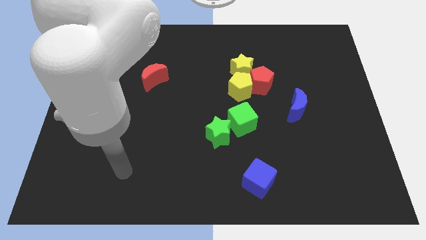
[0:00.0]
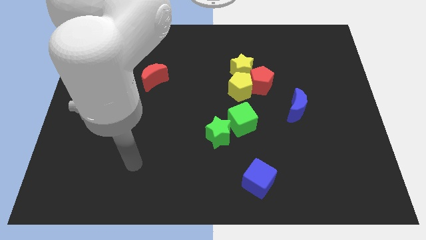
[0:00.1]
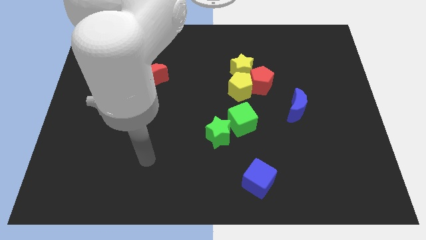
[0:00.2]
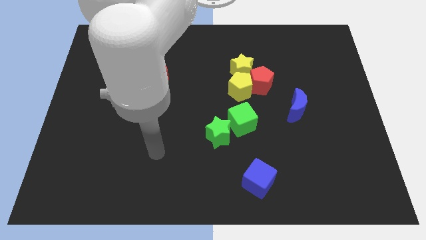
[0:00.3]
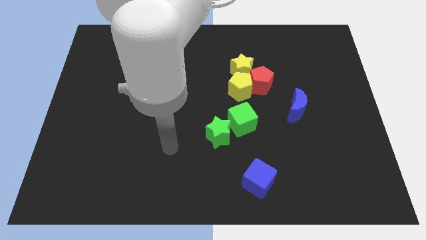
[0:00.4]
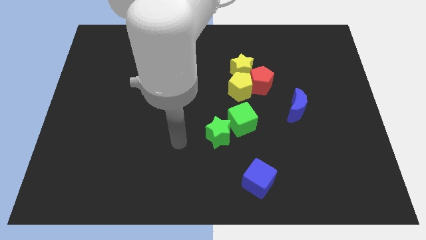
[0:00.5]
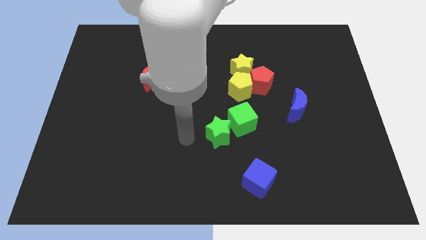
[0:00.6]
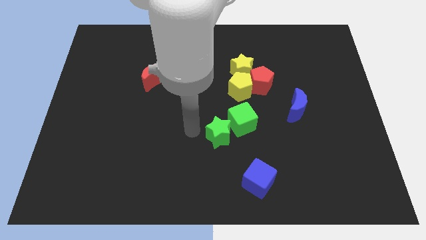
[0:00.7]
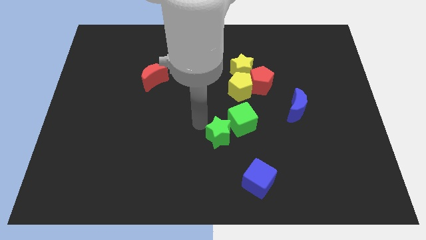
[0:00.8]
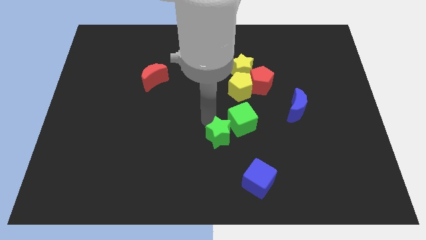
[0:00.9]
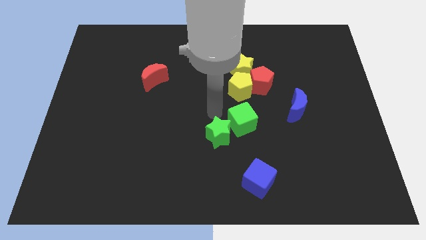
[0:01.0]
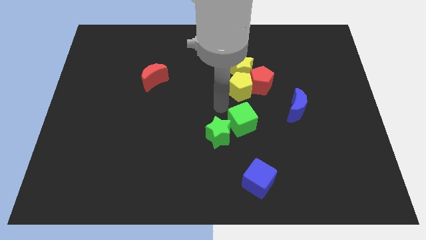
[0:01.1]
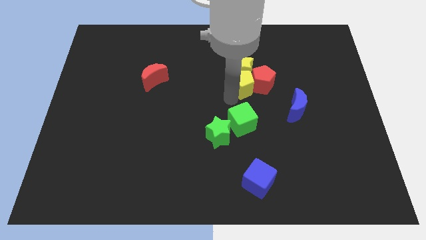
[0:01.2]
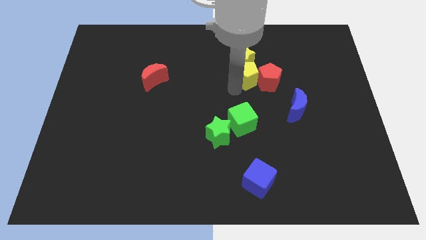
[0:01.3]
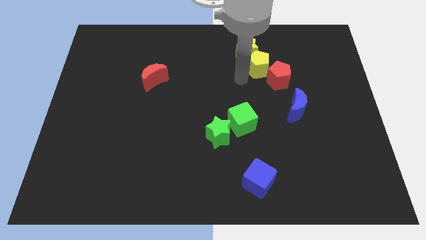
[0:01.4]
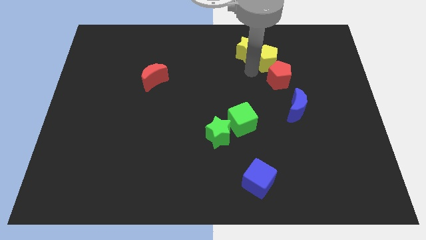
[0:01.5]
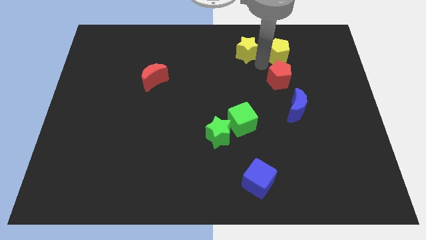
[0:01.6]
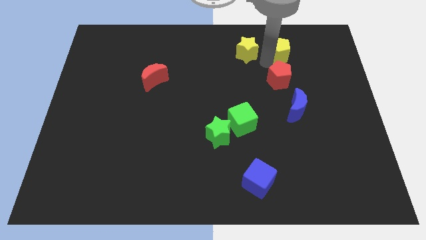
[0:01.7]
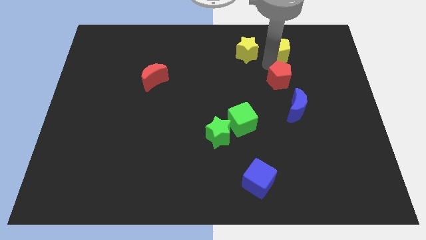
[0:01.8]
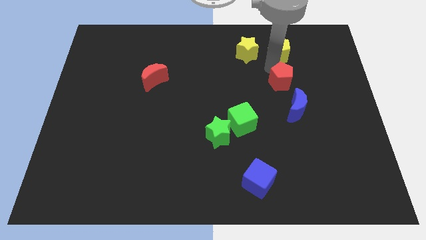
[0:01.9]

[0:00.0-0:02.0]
move the red pentagon away from the yellow pentagon and yellow star

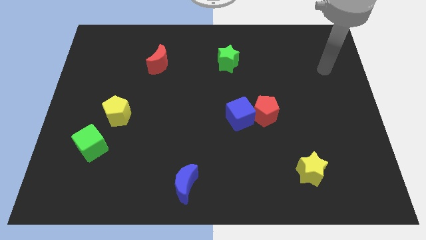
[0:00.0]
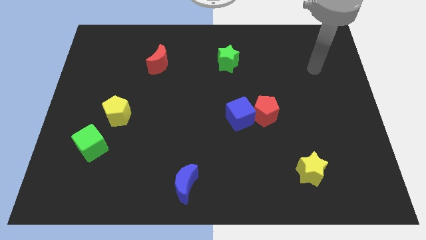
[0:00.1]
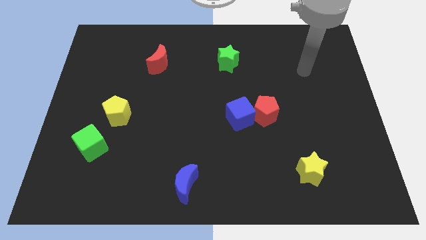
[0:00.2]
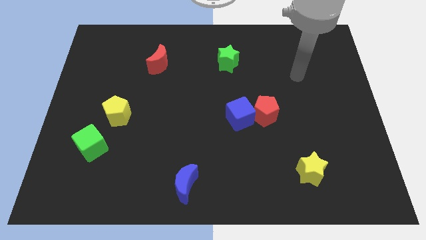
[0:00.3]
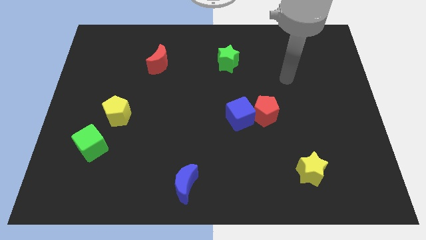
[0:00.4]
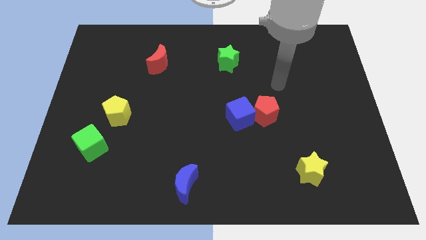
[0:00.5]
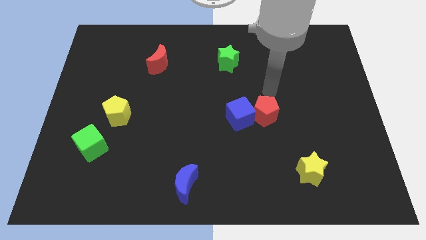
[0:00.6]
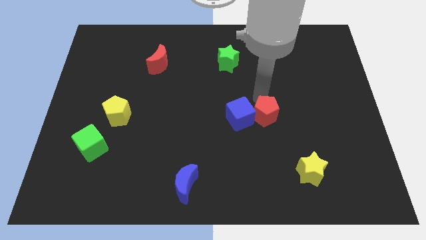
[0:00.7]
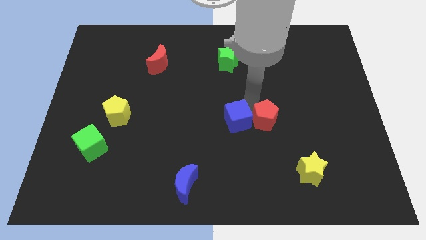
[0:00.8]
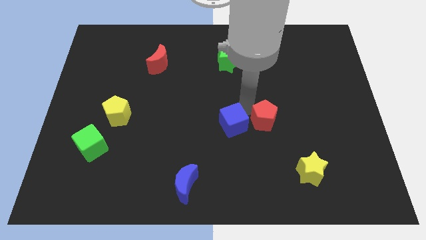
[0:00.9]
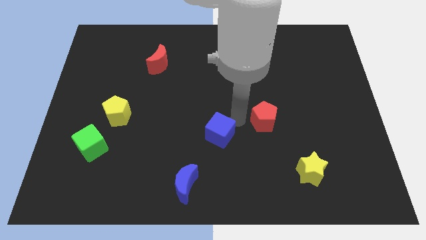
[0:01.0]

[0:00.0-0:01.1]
pull the red pentagon apart from the blue cube

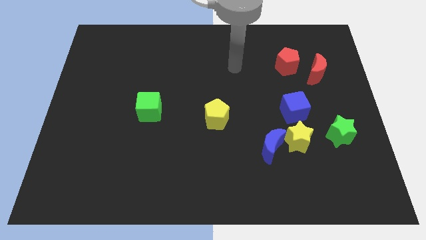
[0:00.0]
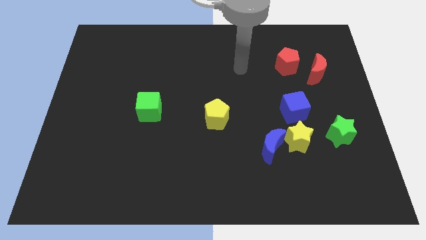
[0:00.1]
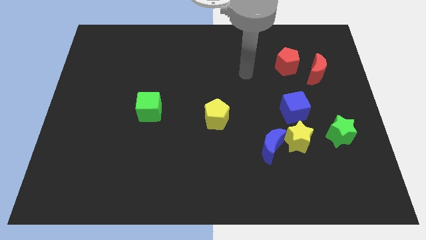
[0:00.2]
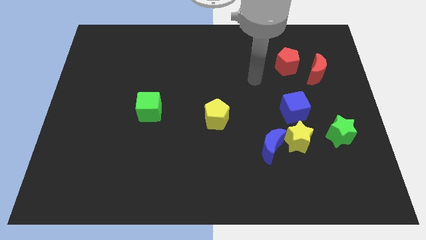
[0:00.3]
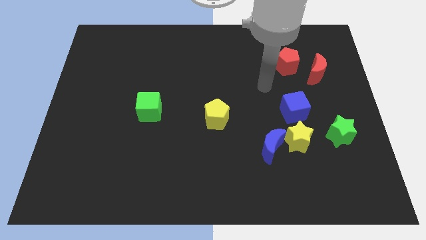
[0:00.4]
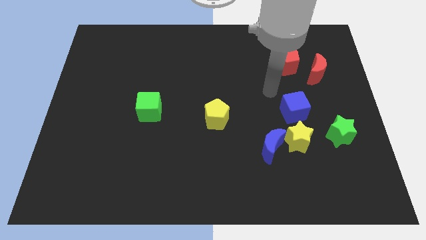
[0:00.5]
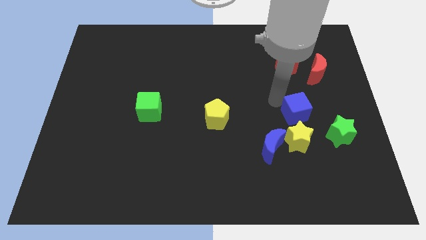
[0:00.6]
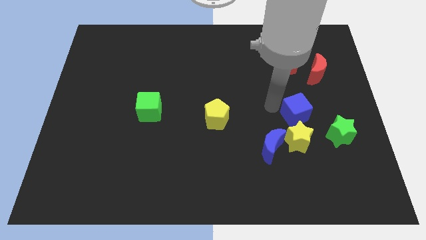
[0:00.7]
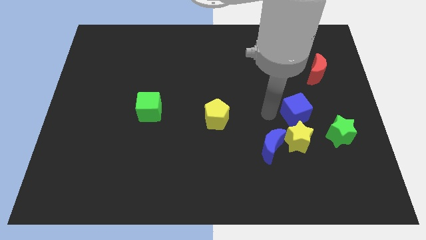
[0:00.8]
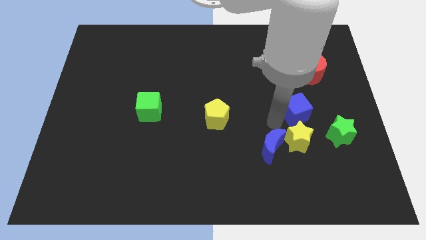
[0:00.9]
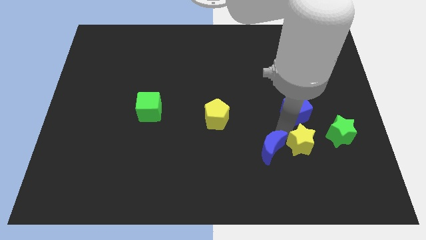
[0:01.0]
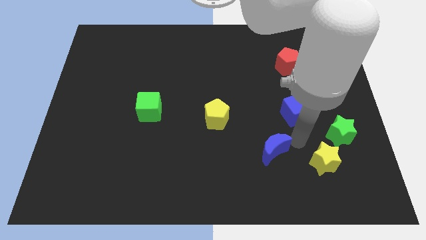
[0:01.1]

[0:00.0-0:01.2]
separate the blue moon from the yellow star

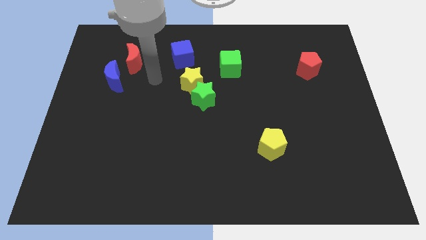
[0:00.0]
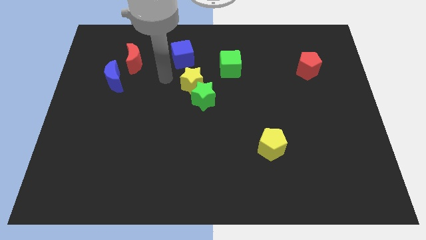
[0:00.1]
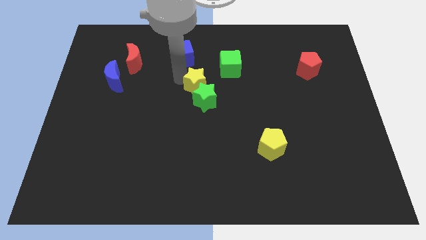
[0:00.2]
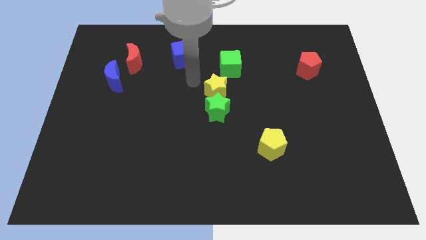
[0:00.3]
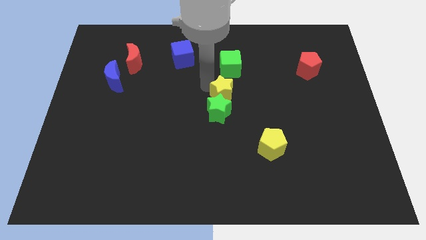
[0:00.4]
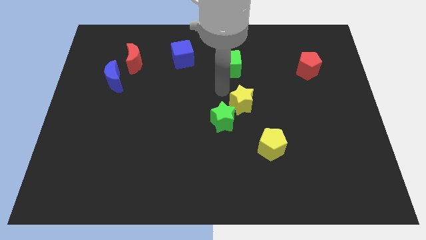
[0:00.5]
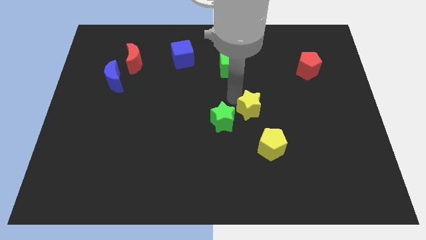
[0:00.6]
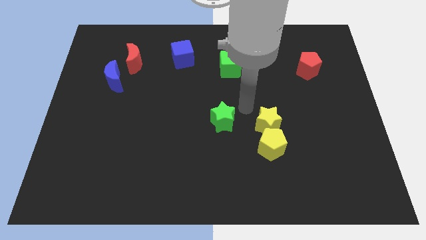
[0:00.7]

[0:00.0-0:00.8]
pull the green star apart from the yellow star

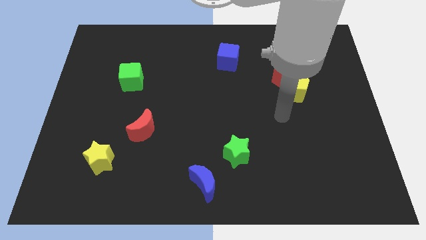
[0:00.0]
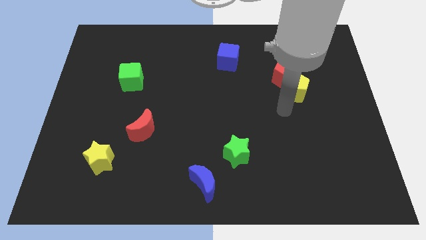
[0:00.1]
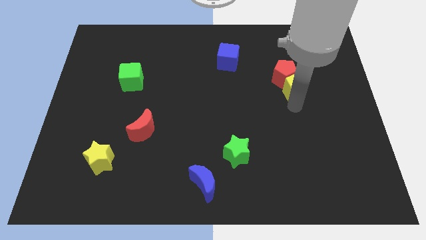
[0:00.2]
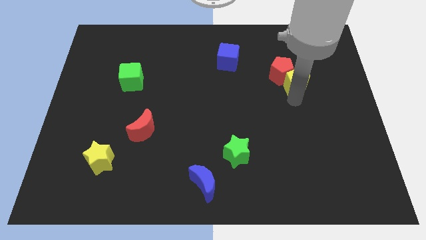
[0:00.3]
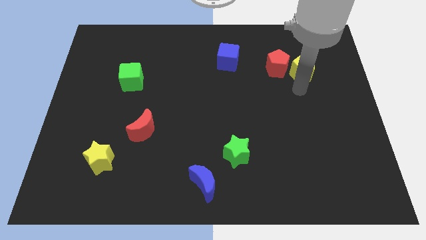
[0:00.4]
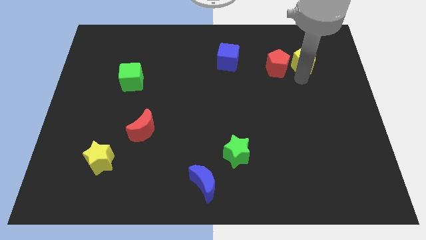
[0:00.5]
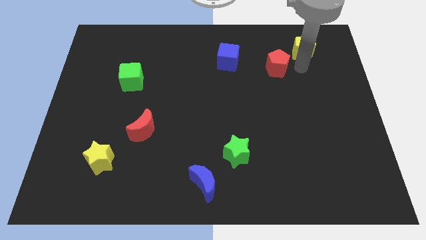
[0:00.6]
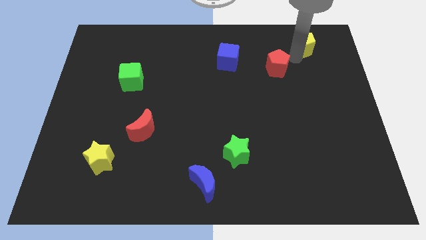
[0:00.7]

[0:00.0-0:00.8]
pull the red pentagon apart from the yellow pentagon

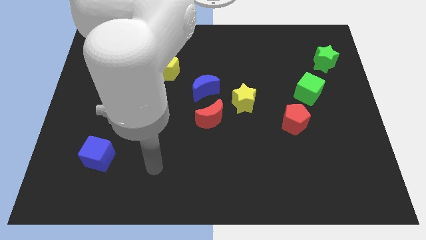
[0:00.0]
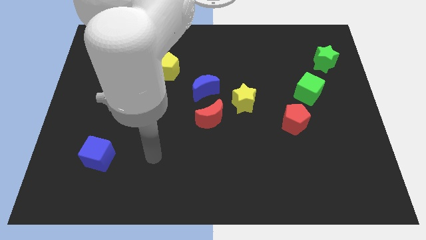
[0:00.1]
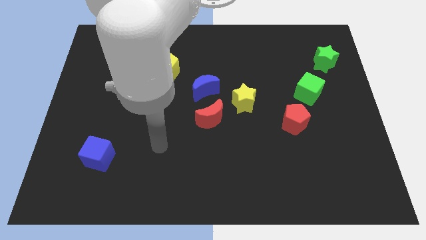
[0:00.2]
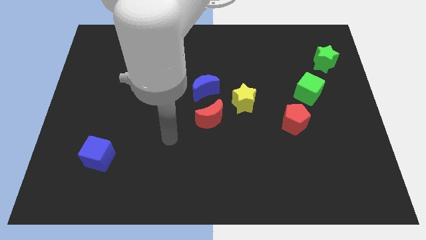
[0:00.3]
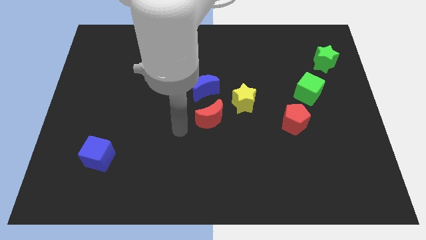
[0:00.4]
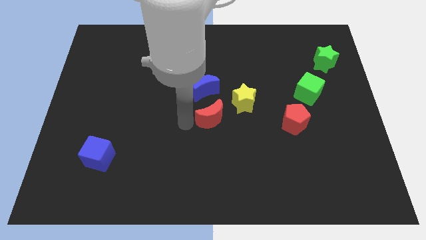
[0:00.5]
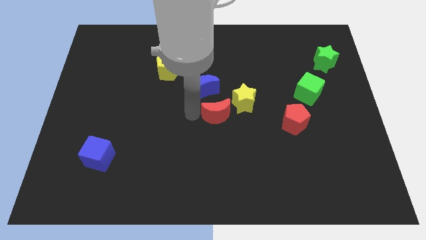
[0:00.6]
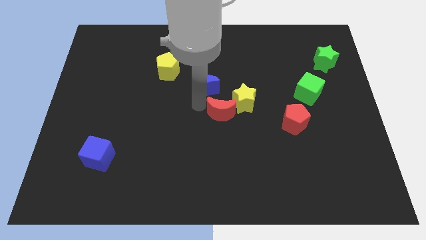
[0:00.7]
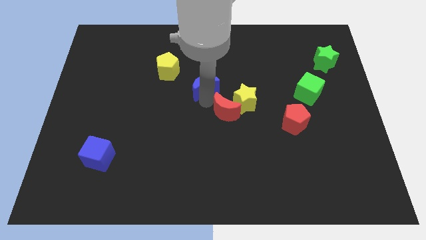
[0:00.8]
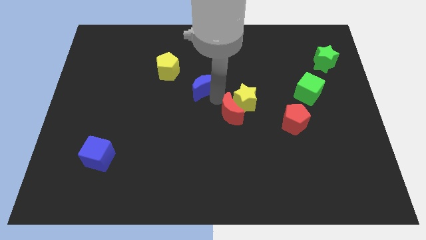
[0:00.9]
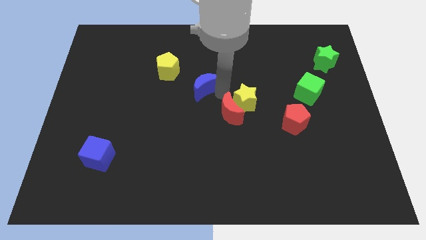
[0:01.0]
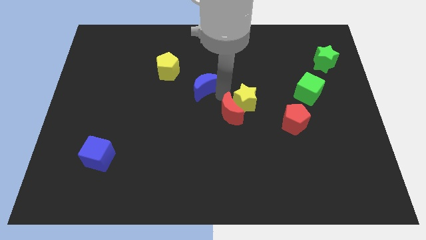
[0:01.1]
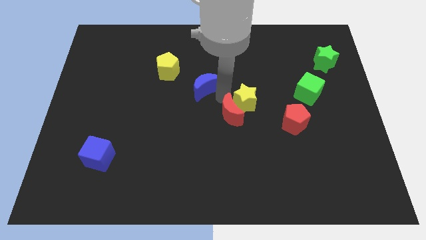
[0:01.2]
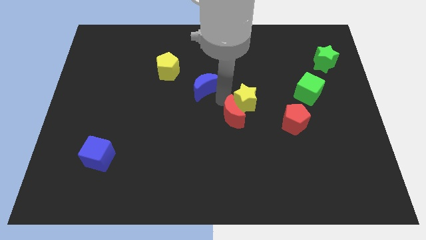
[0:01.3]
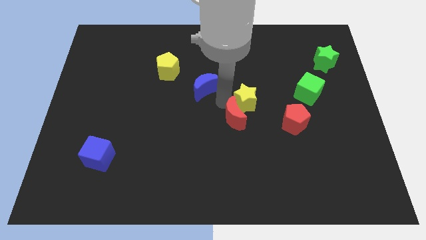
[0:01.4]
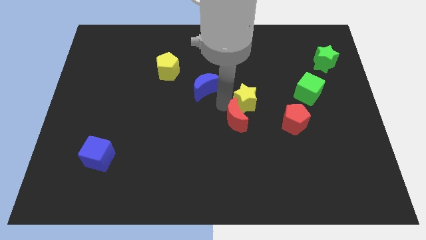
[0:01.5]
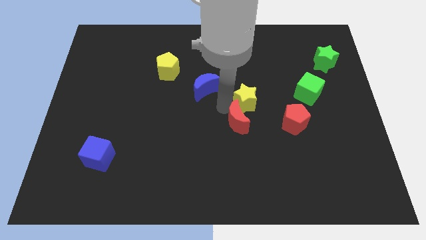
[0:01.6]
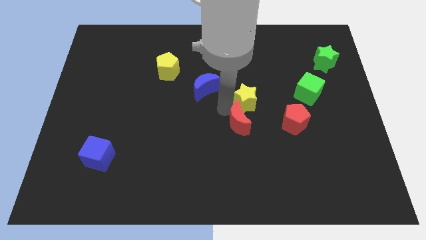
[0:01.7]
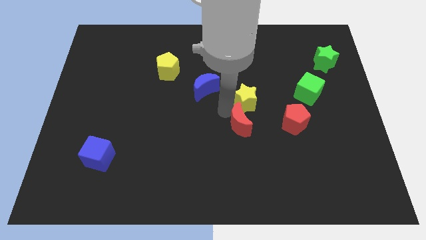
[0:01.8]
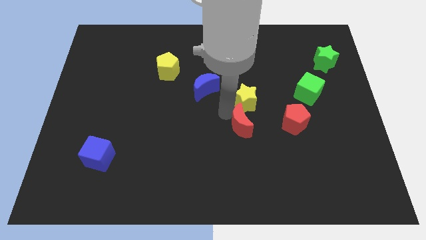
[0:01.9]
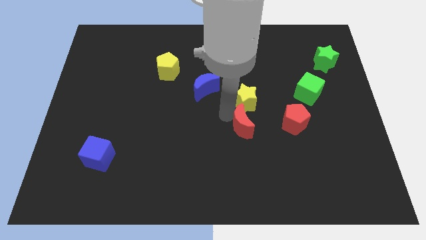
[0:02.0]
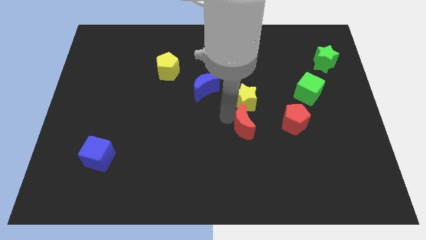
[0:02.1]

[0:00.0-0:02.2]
move the red moon away from the blue moon and yellow star

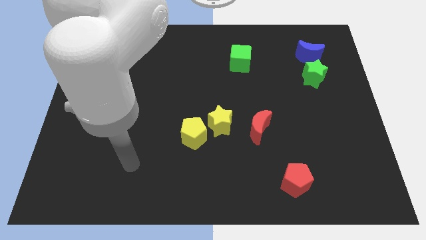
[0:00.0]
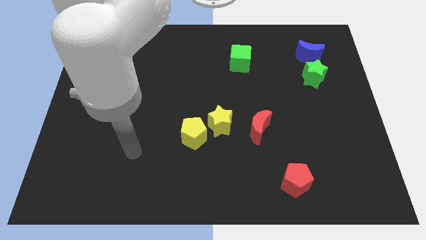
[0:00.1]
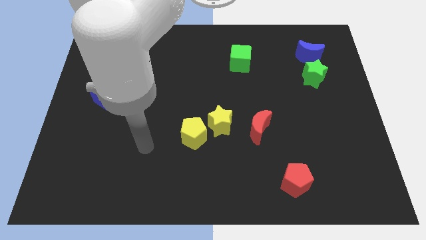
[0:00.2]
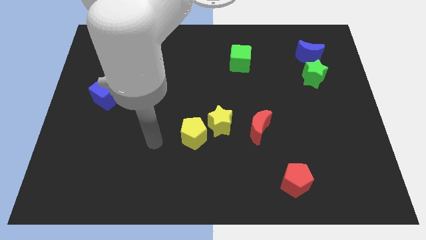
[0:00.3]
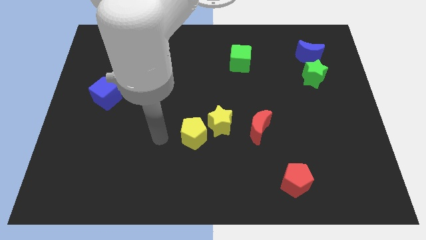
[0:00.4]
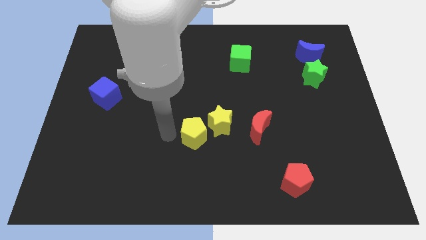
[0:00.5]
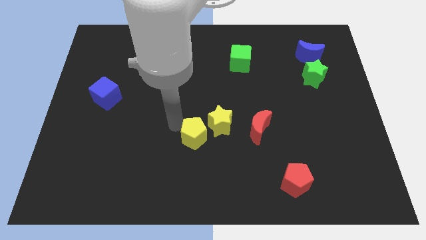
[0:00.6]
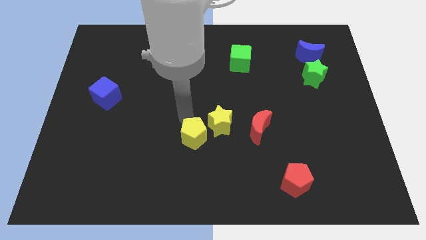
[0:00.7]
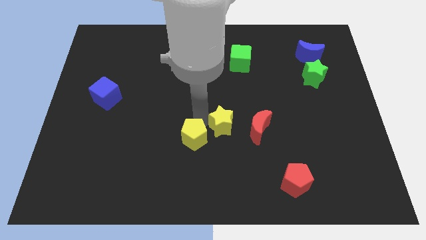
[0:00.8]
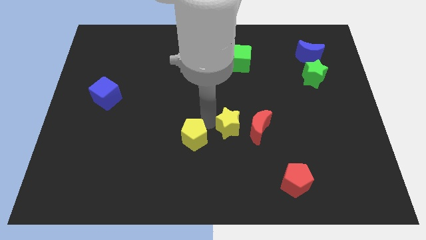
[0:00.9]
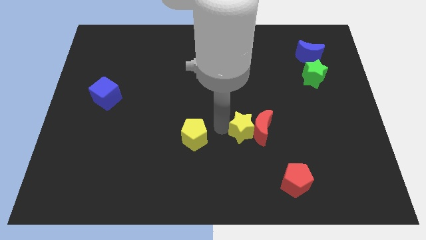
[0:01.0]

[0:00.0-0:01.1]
pull the yellow pentagon apart from the yellow star
